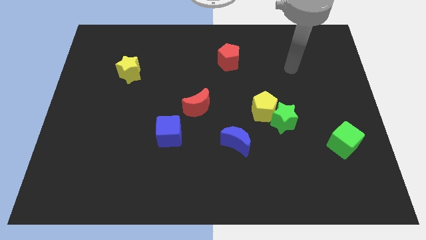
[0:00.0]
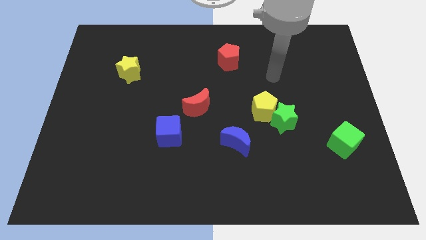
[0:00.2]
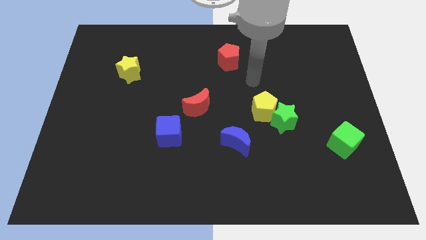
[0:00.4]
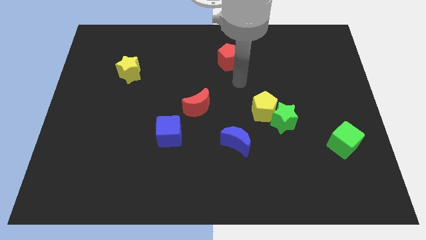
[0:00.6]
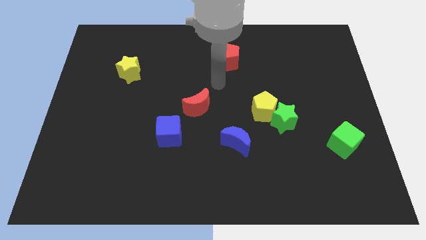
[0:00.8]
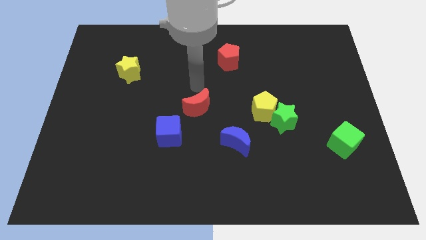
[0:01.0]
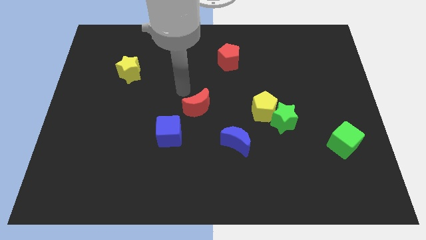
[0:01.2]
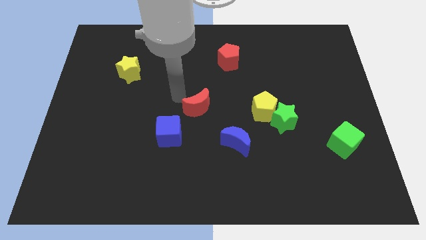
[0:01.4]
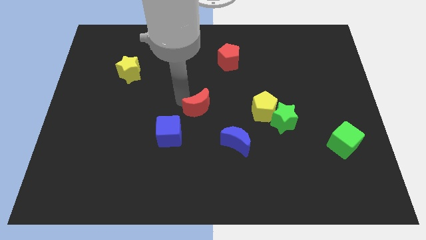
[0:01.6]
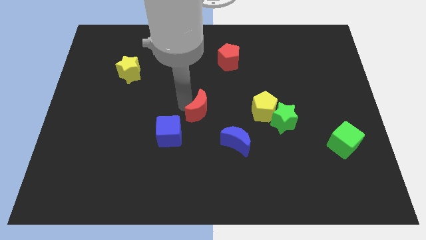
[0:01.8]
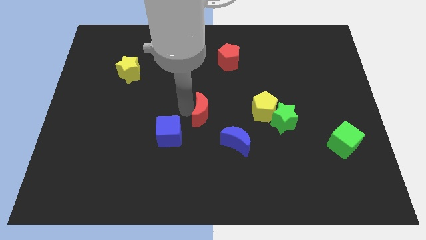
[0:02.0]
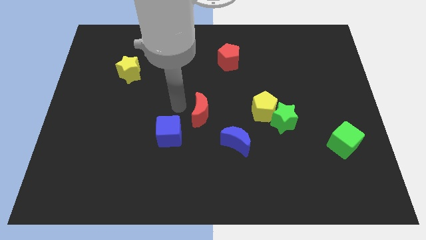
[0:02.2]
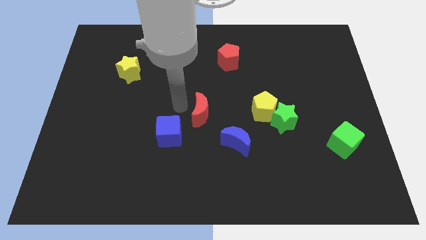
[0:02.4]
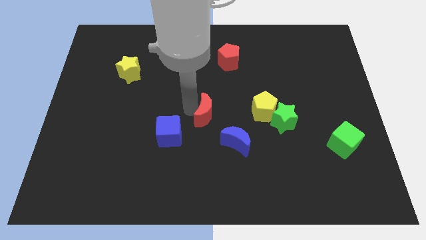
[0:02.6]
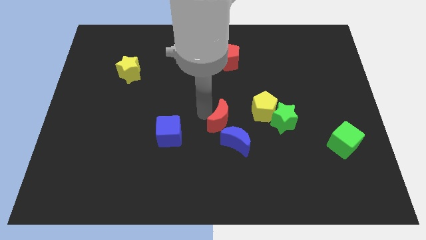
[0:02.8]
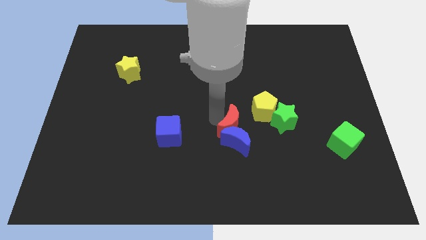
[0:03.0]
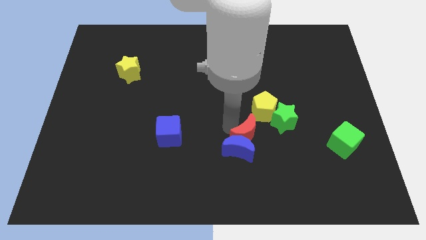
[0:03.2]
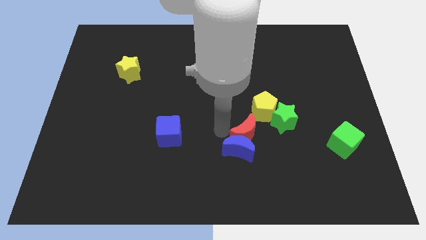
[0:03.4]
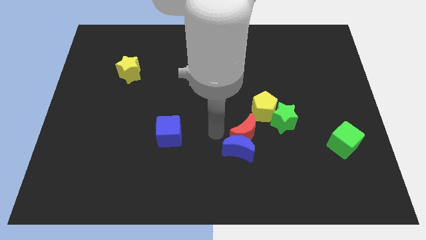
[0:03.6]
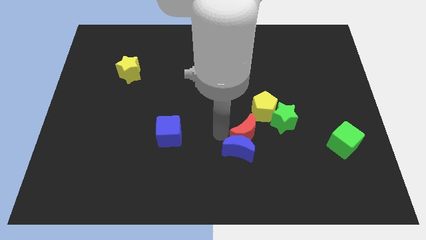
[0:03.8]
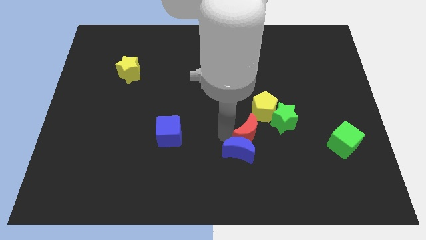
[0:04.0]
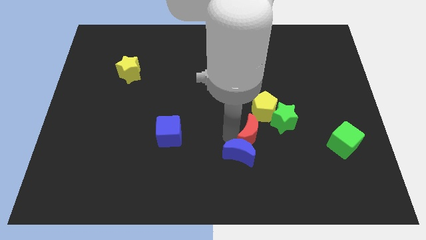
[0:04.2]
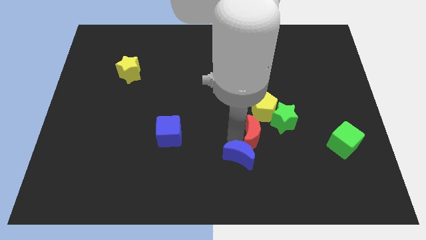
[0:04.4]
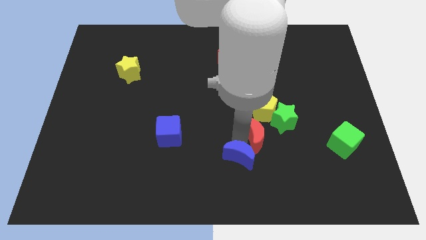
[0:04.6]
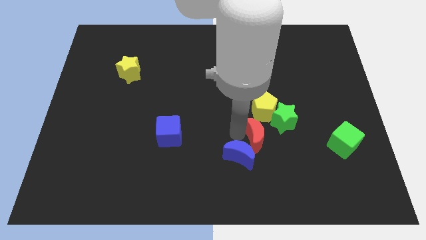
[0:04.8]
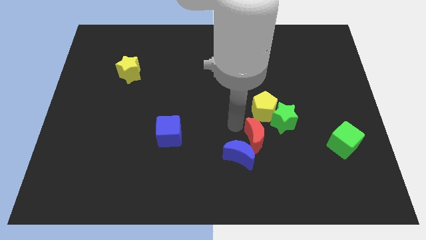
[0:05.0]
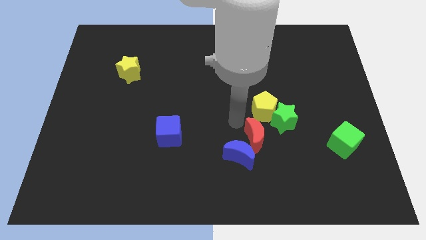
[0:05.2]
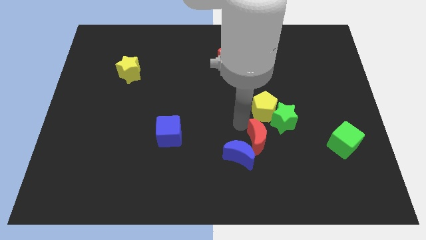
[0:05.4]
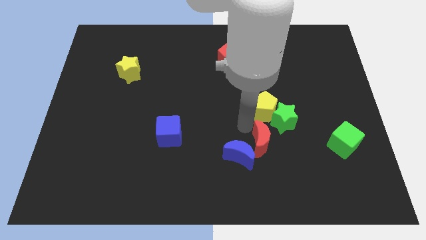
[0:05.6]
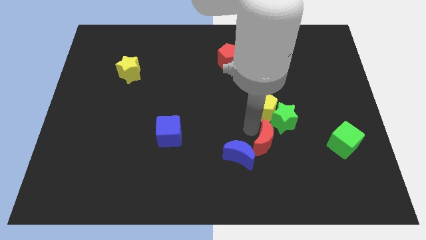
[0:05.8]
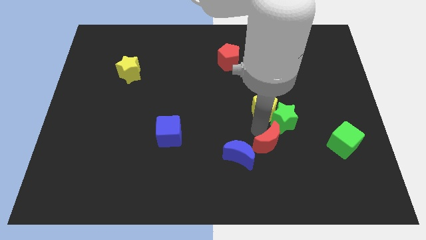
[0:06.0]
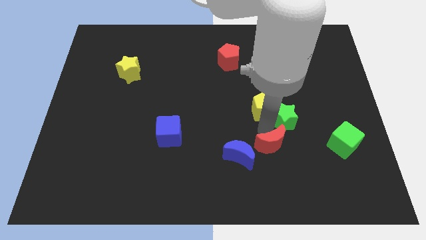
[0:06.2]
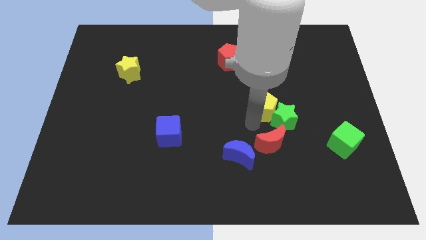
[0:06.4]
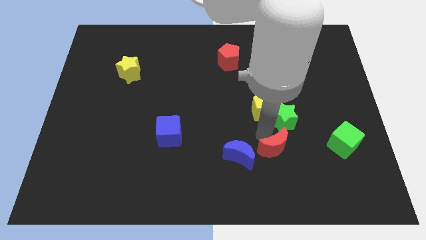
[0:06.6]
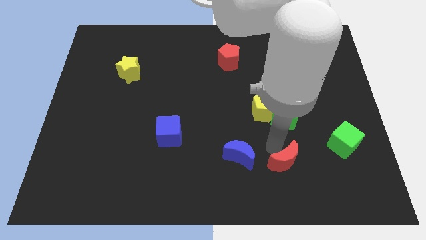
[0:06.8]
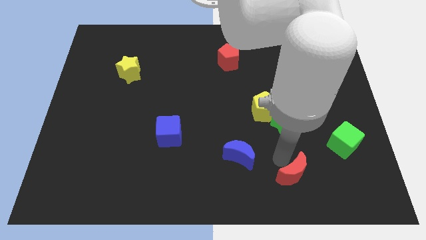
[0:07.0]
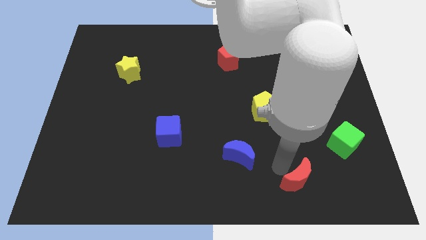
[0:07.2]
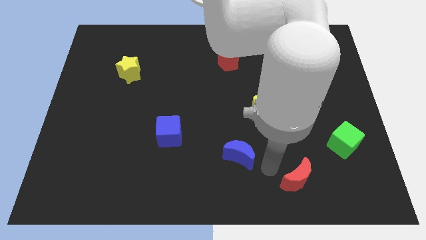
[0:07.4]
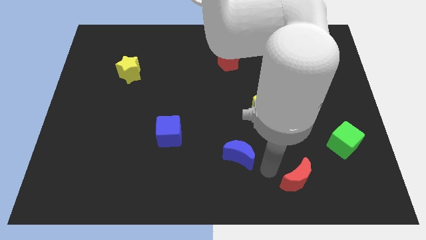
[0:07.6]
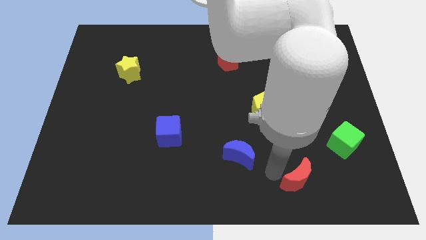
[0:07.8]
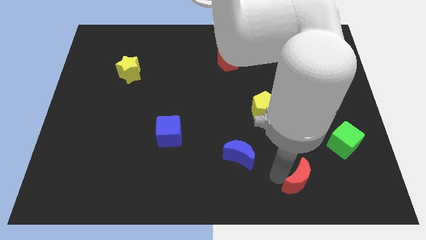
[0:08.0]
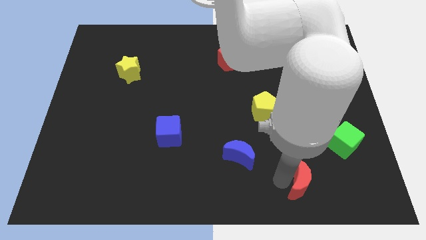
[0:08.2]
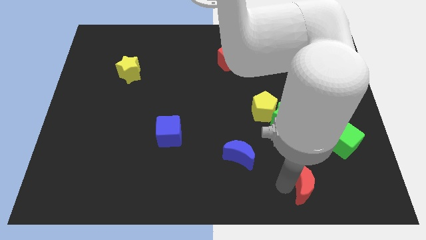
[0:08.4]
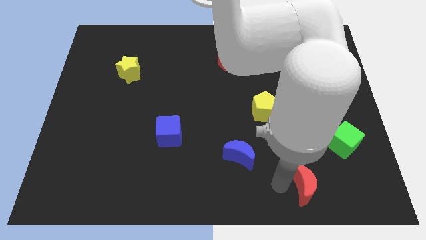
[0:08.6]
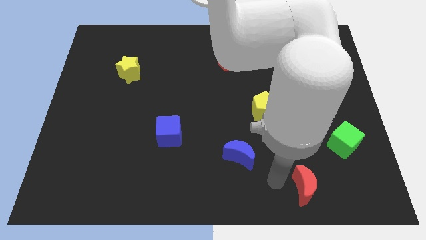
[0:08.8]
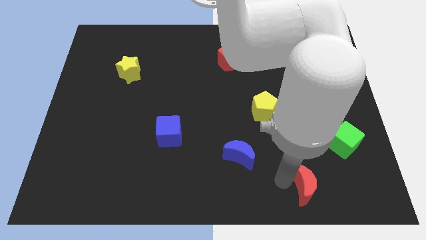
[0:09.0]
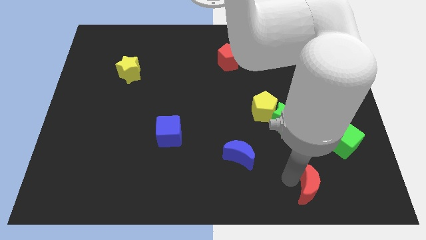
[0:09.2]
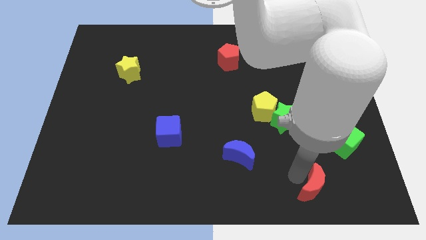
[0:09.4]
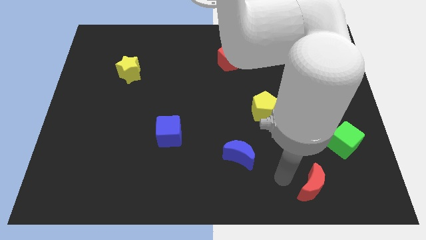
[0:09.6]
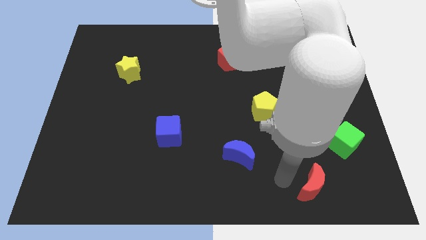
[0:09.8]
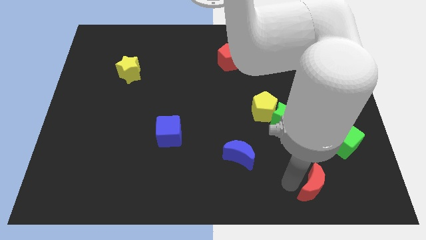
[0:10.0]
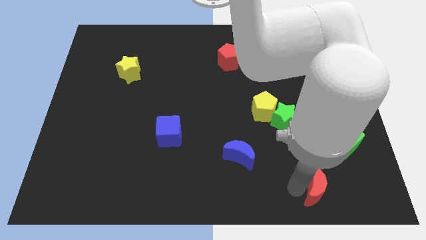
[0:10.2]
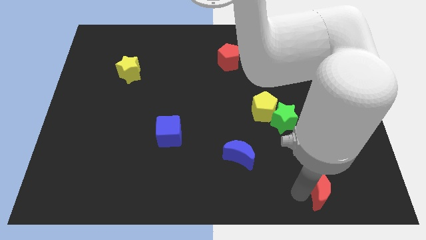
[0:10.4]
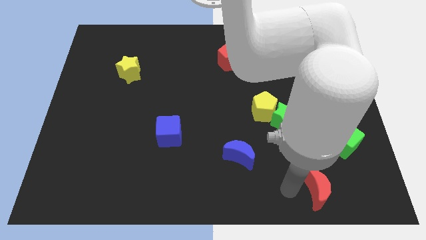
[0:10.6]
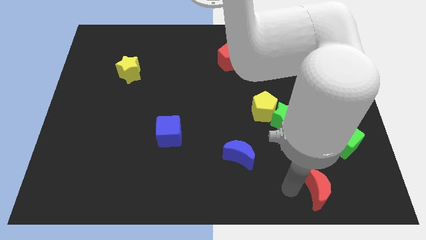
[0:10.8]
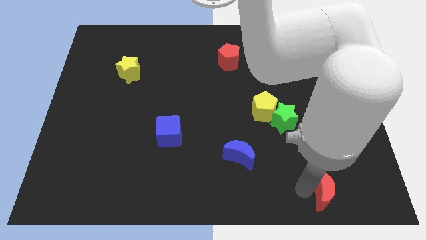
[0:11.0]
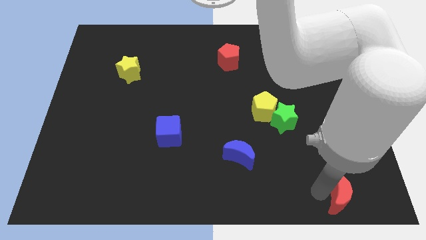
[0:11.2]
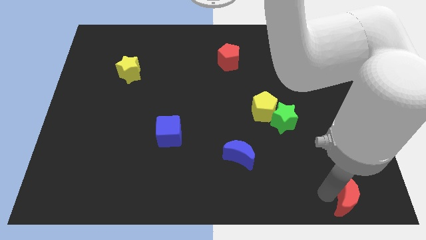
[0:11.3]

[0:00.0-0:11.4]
put the red moon to the bottom right
